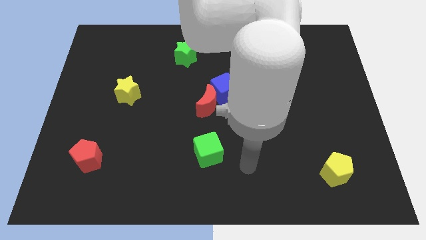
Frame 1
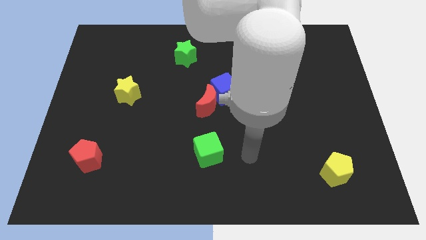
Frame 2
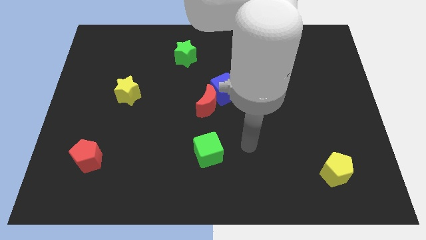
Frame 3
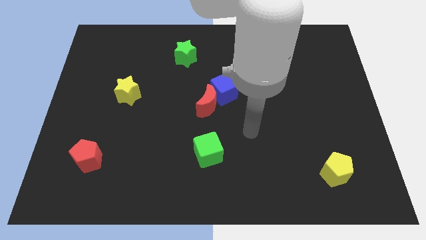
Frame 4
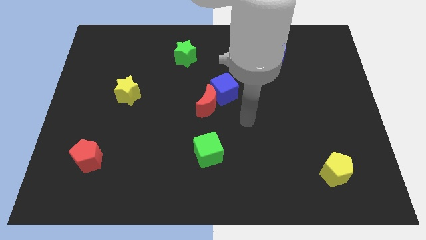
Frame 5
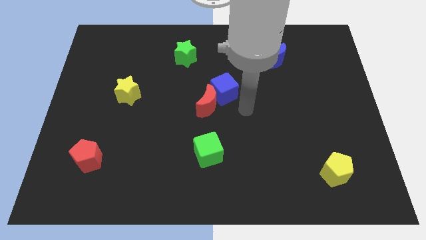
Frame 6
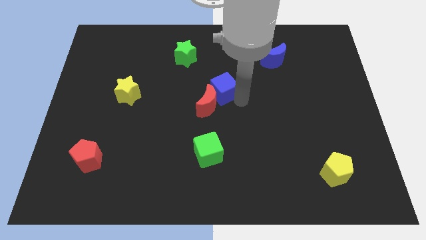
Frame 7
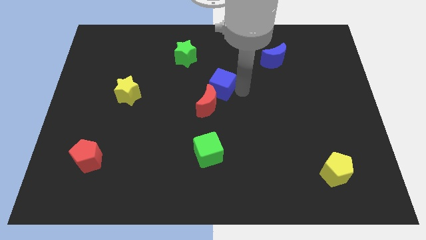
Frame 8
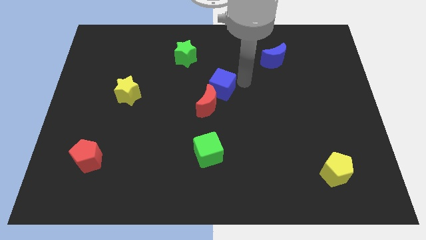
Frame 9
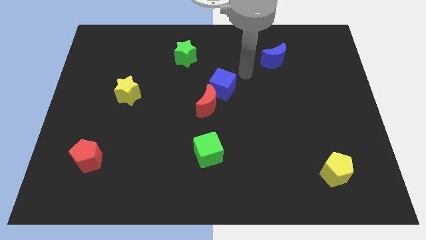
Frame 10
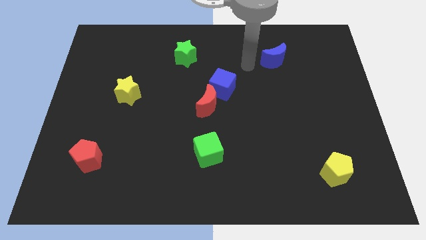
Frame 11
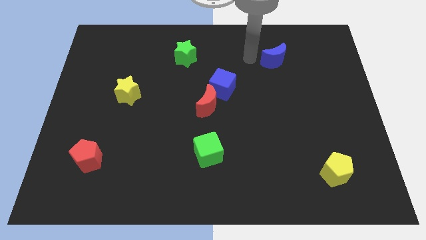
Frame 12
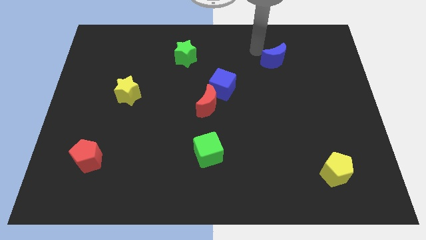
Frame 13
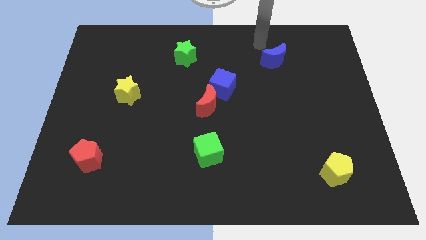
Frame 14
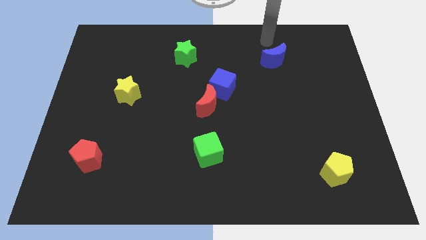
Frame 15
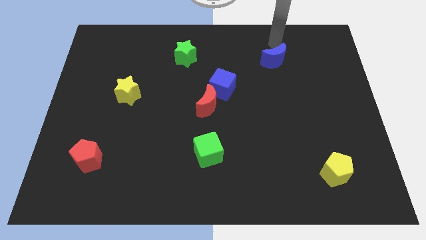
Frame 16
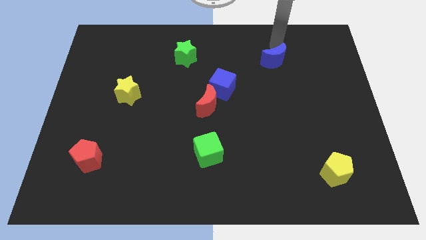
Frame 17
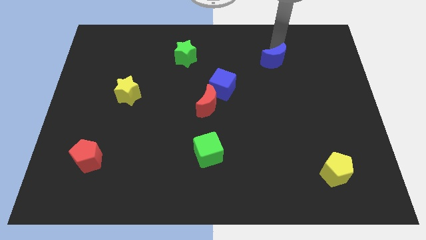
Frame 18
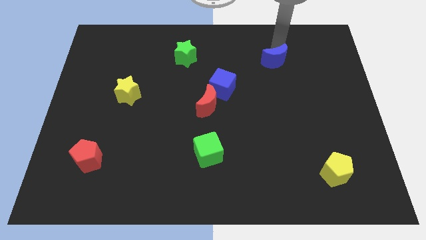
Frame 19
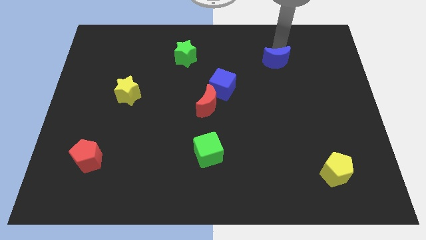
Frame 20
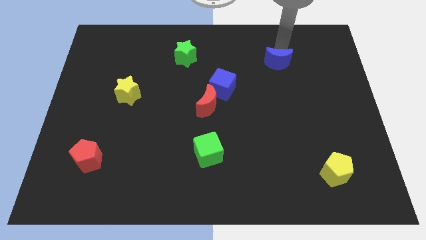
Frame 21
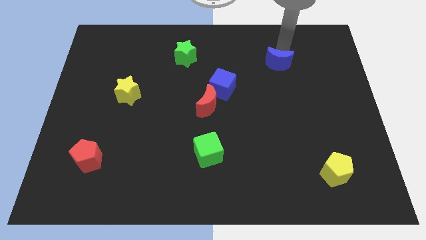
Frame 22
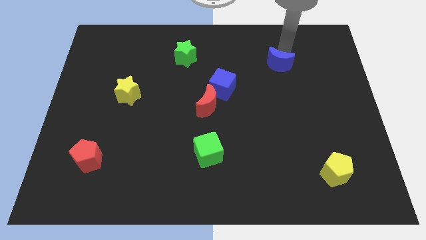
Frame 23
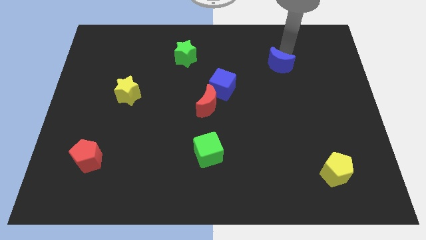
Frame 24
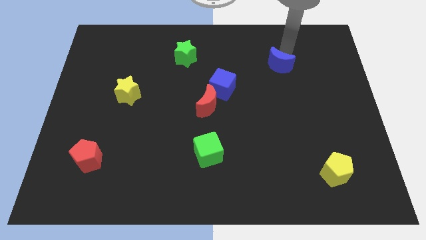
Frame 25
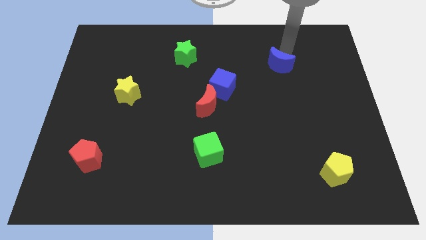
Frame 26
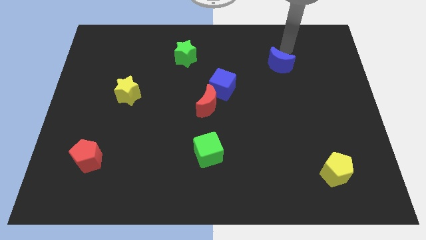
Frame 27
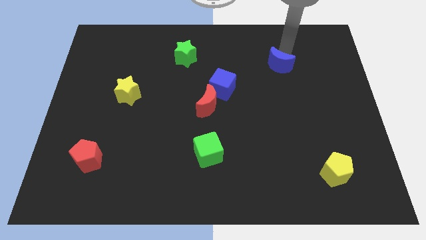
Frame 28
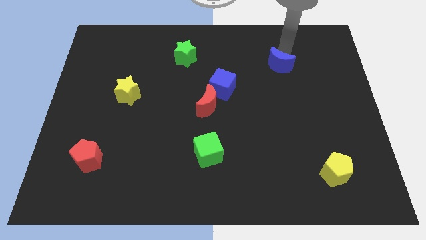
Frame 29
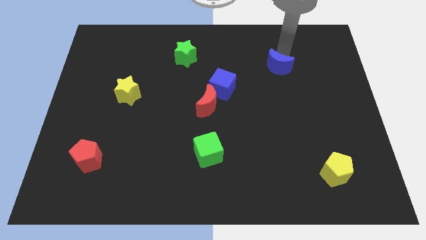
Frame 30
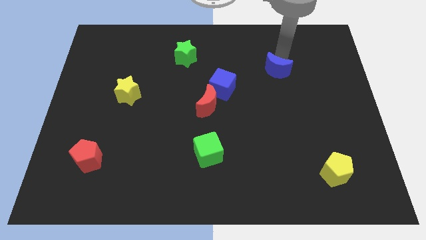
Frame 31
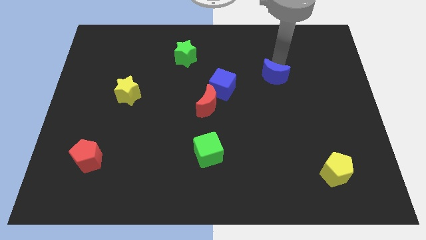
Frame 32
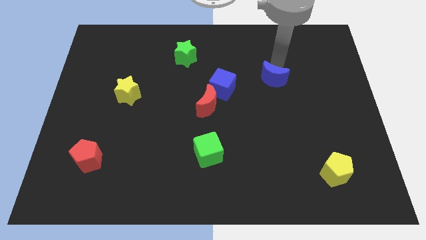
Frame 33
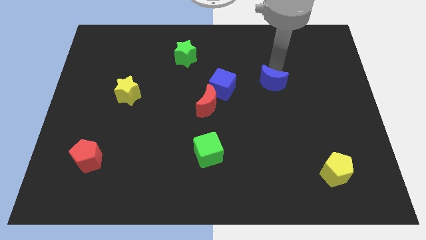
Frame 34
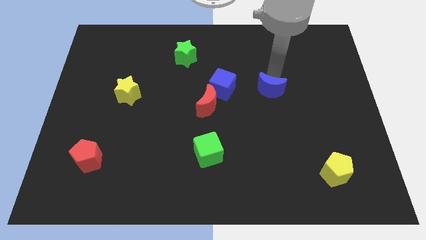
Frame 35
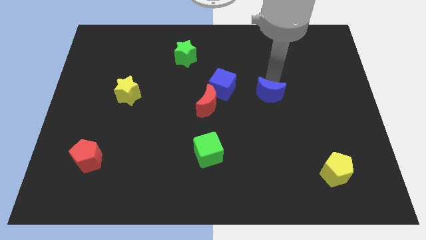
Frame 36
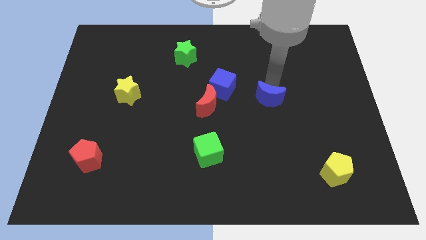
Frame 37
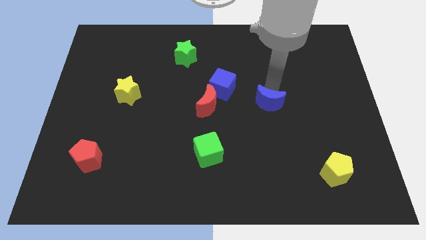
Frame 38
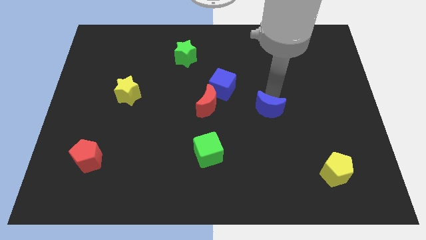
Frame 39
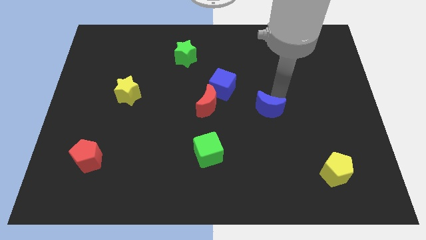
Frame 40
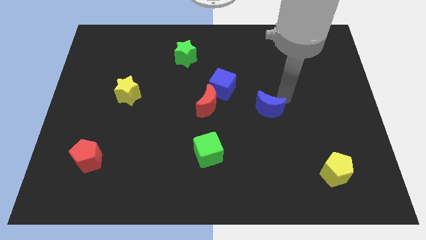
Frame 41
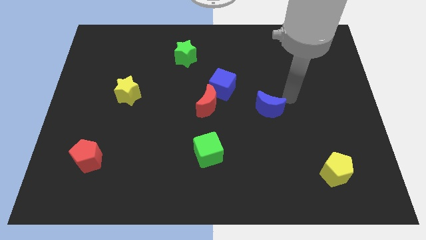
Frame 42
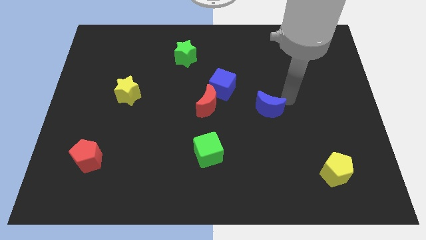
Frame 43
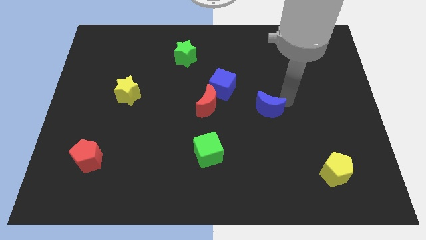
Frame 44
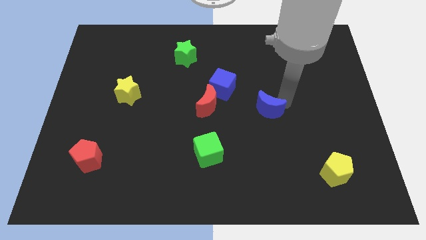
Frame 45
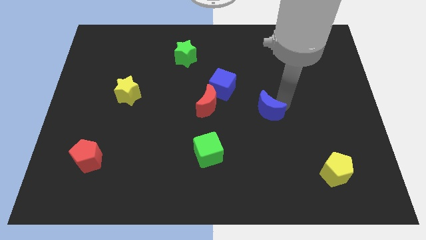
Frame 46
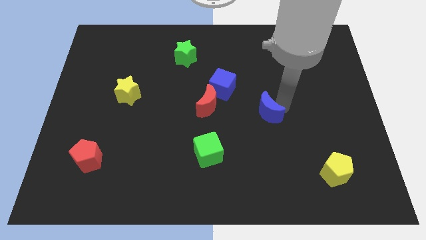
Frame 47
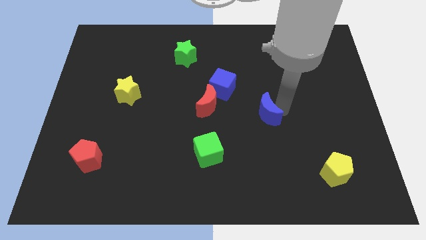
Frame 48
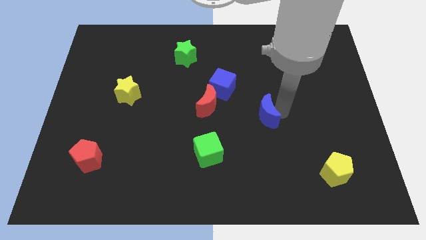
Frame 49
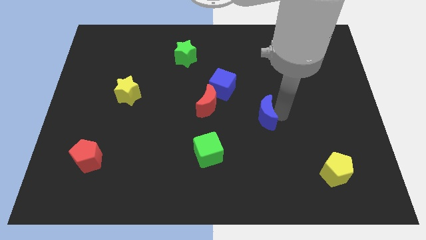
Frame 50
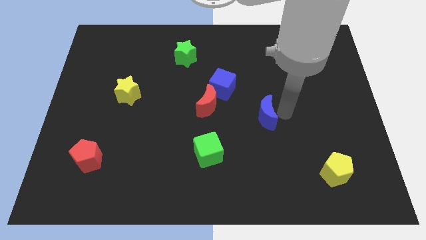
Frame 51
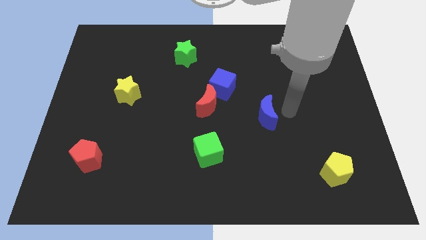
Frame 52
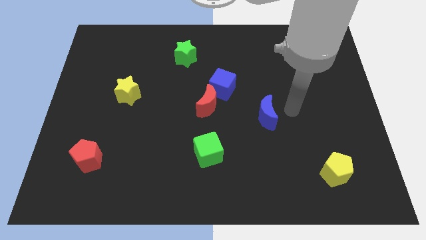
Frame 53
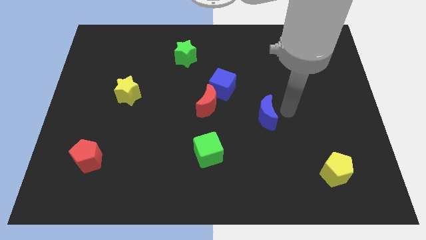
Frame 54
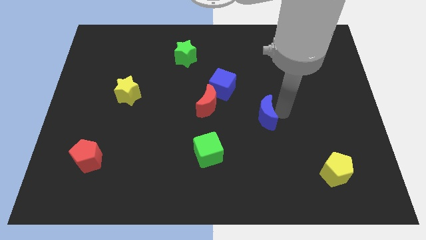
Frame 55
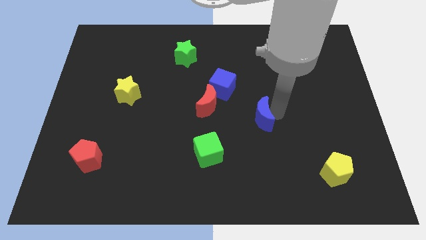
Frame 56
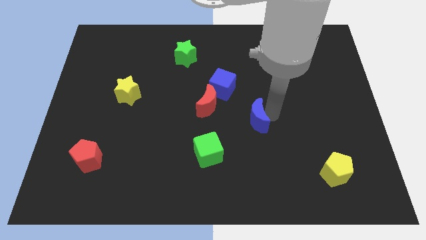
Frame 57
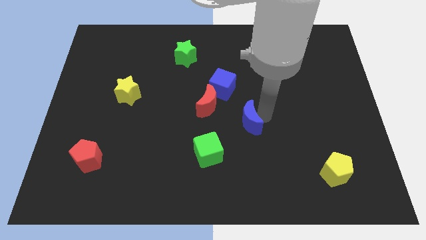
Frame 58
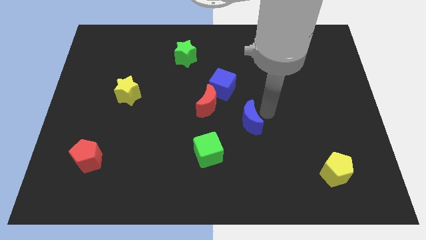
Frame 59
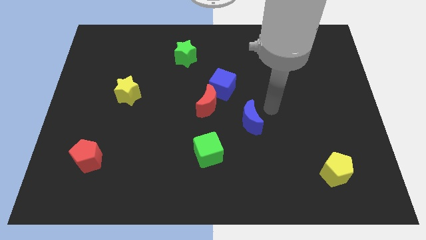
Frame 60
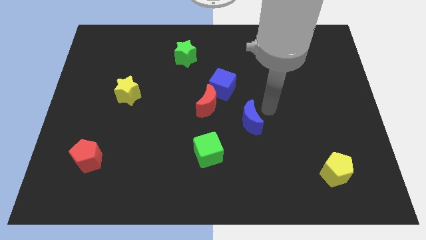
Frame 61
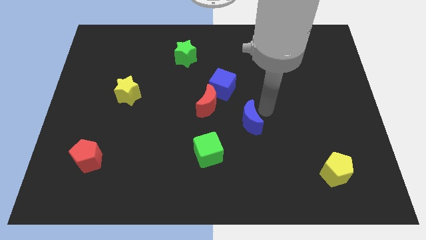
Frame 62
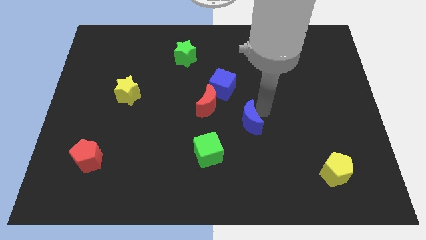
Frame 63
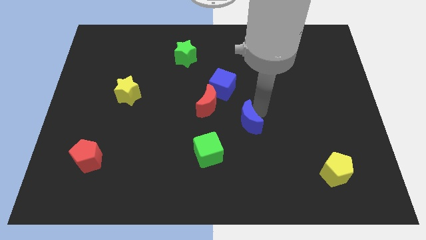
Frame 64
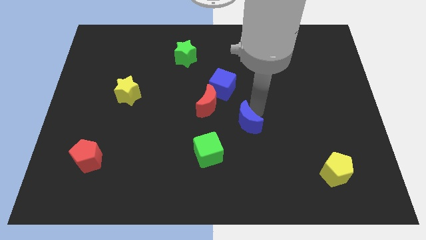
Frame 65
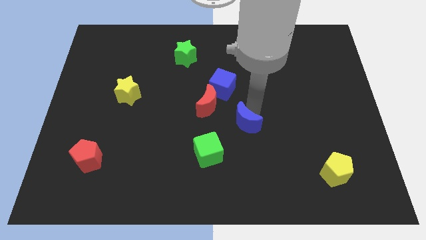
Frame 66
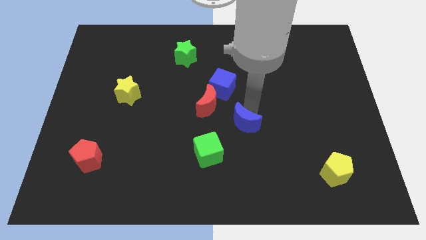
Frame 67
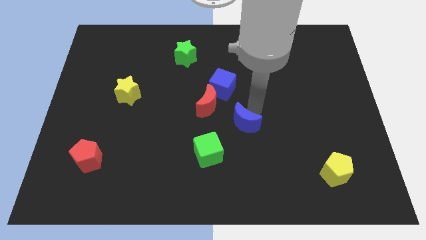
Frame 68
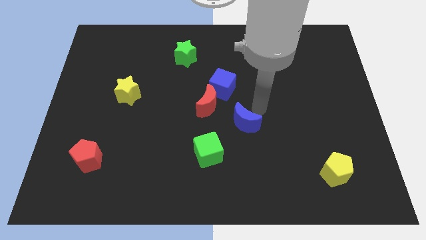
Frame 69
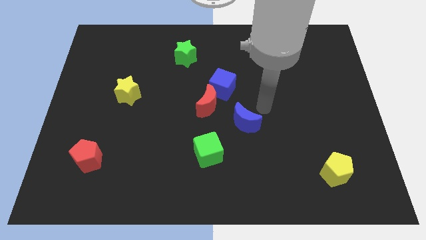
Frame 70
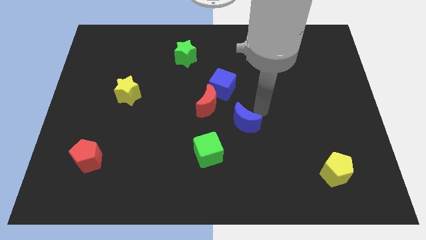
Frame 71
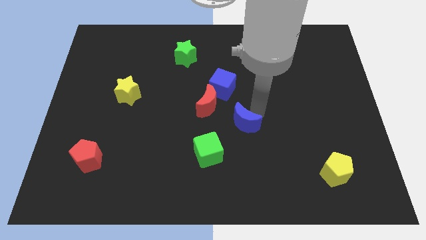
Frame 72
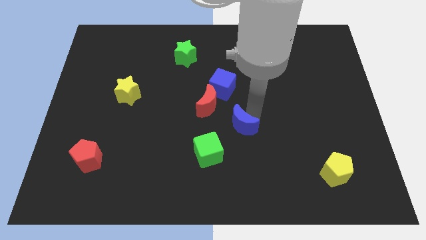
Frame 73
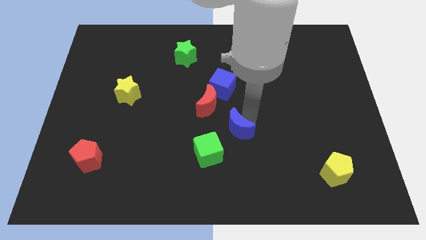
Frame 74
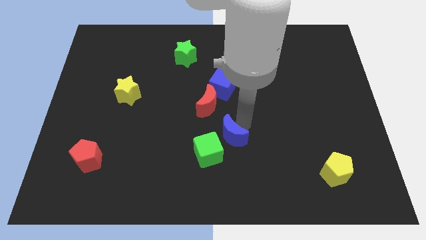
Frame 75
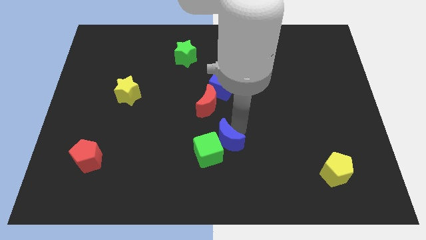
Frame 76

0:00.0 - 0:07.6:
move the blue moon close to the green cube
